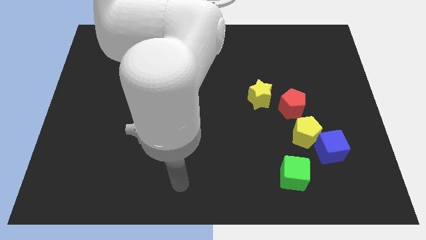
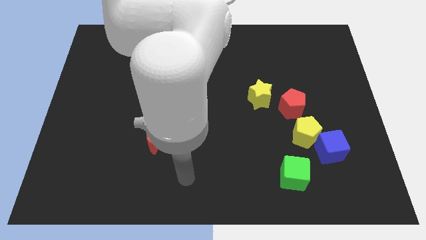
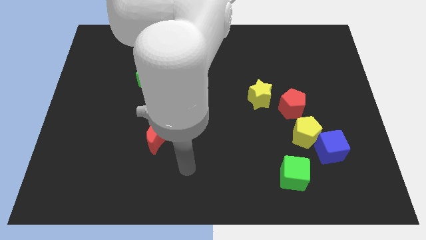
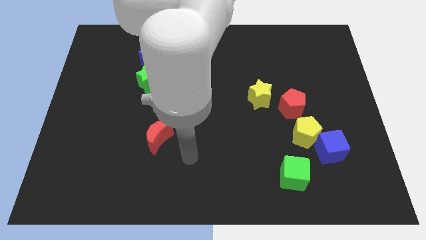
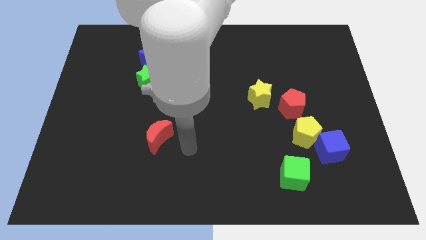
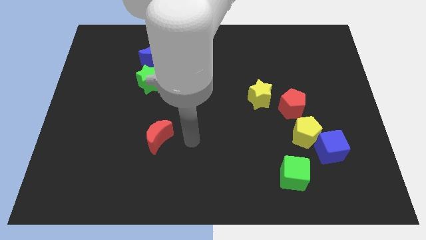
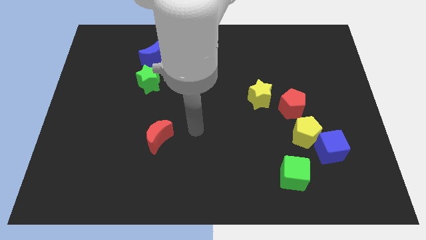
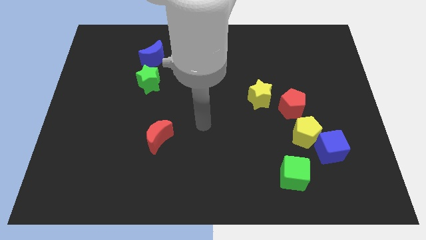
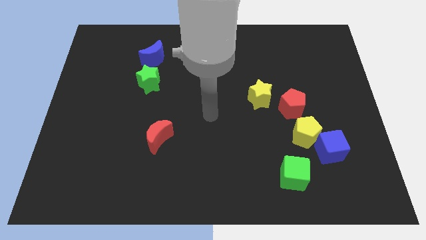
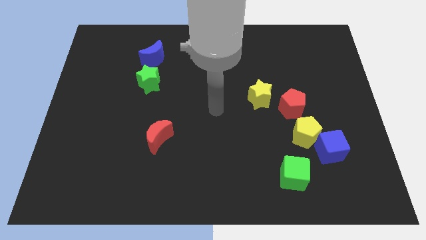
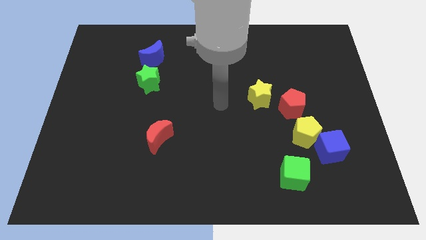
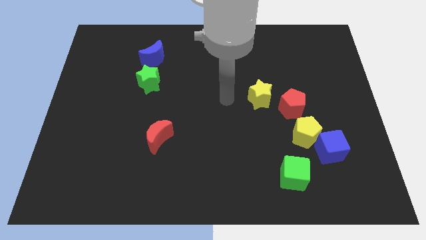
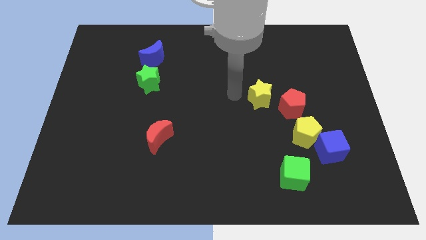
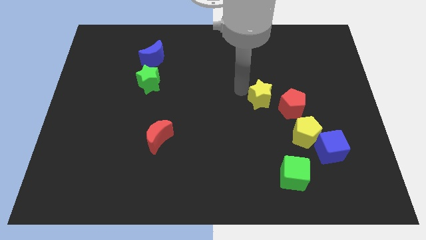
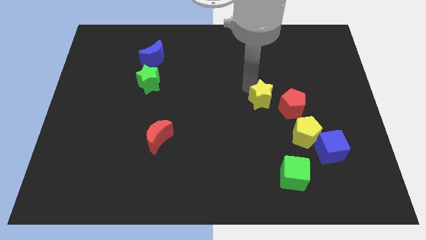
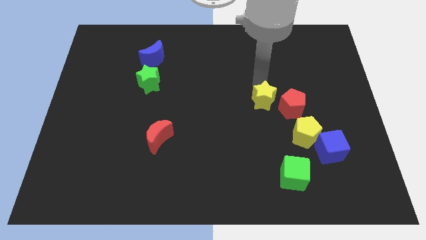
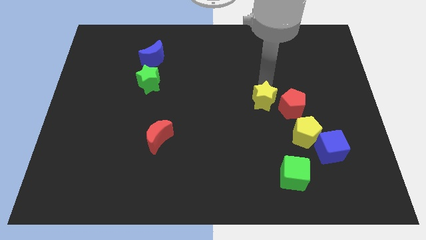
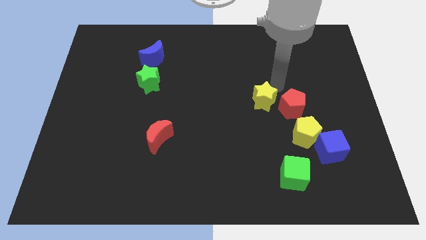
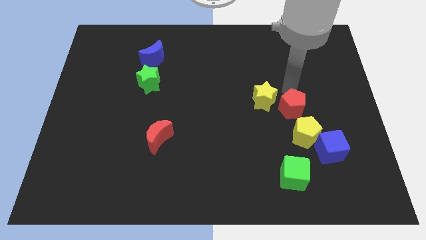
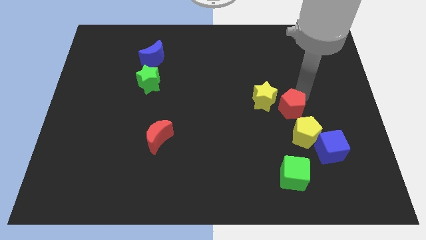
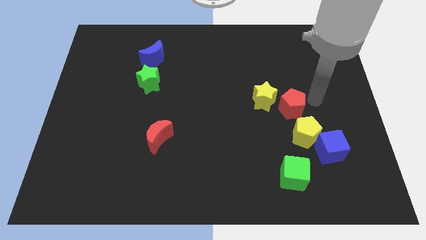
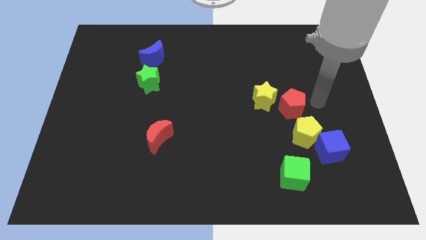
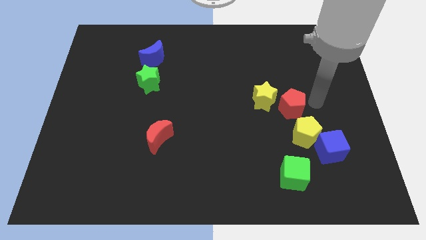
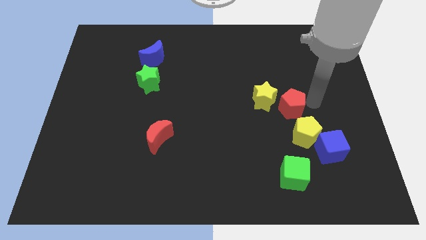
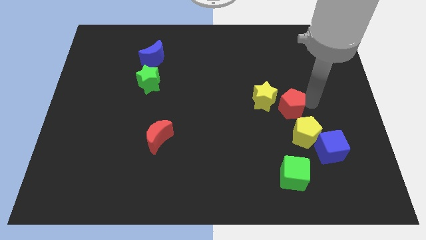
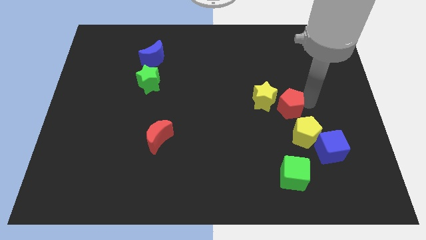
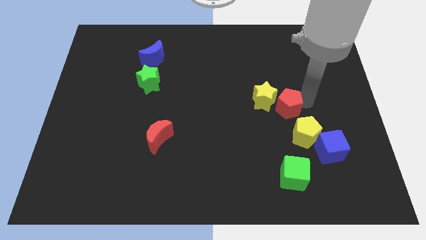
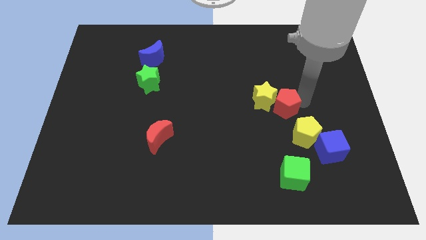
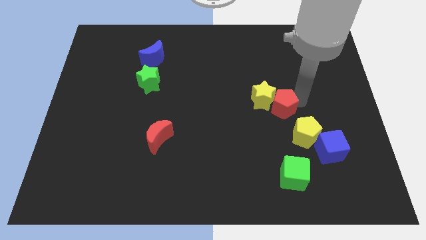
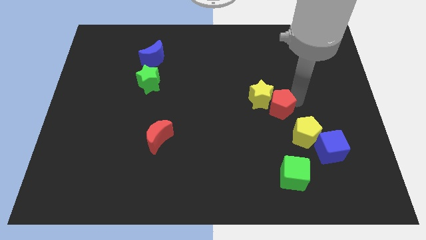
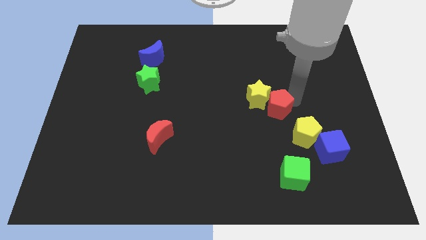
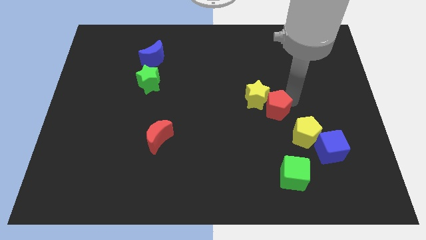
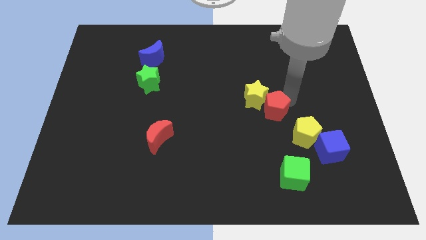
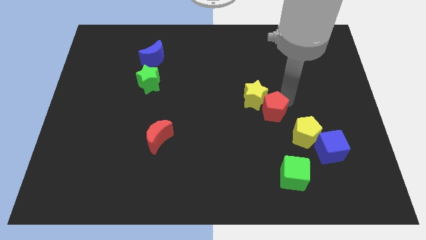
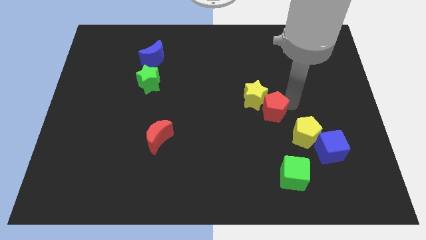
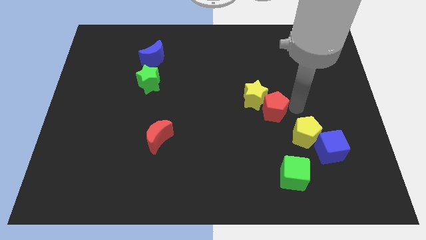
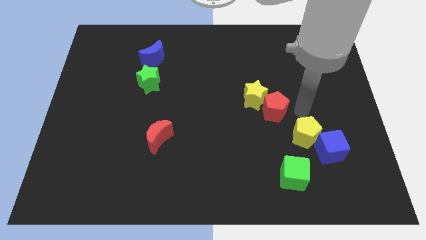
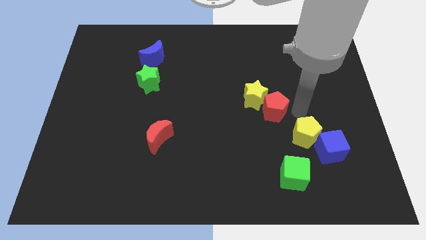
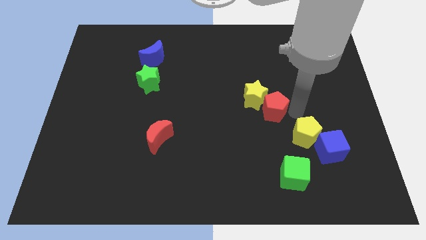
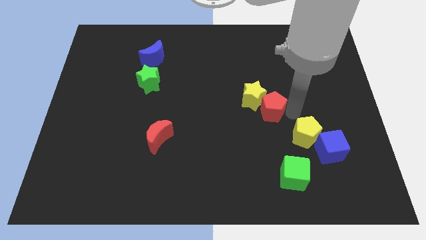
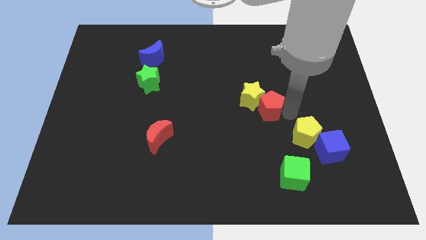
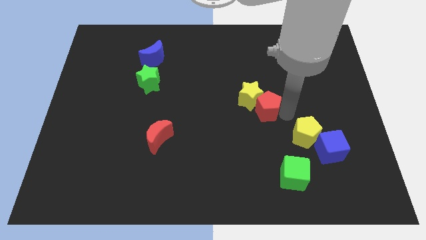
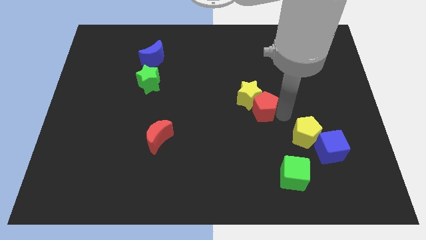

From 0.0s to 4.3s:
push the red pentagon a bit left

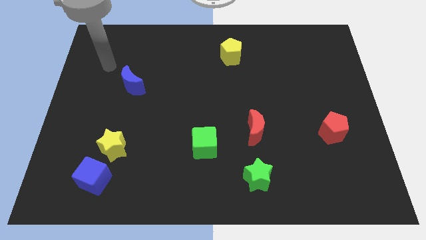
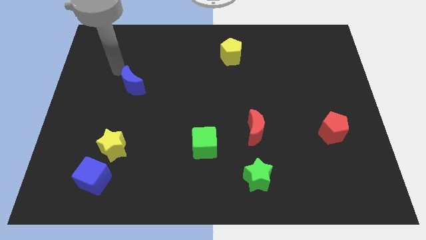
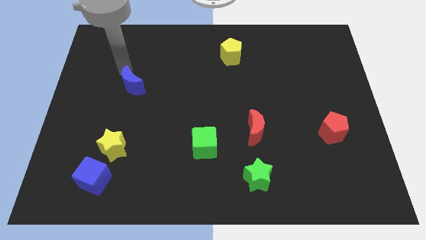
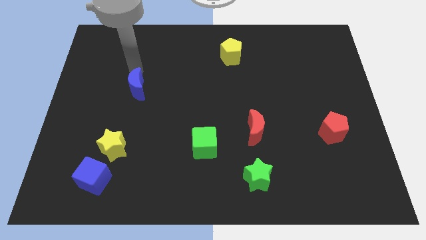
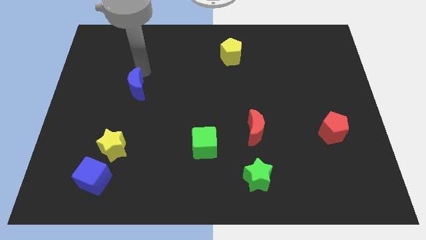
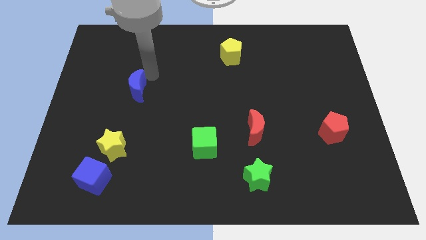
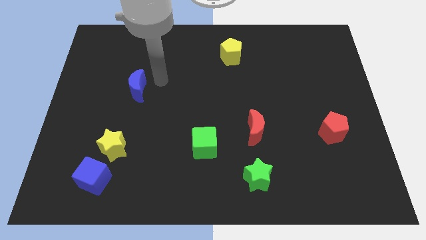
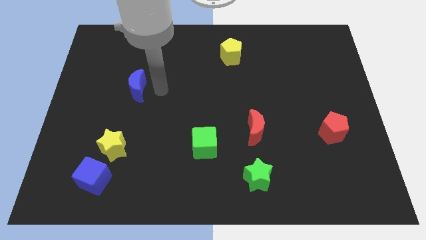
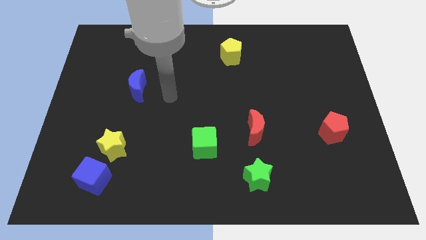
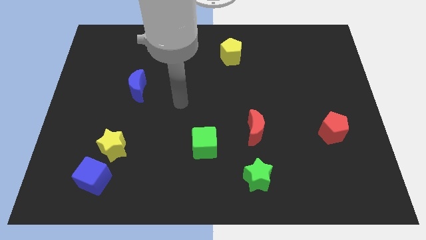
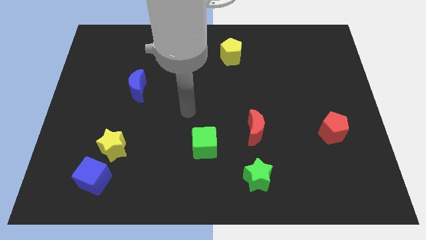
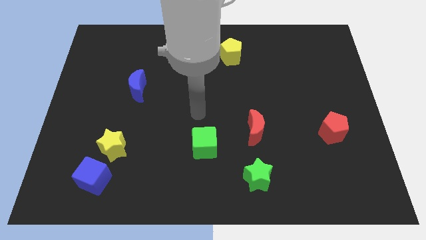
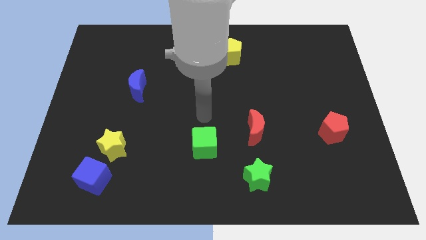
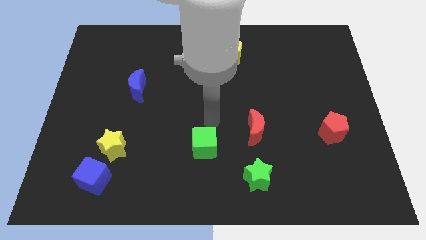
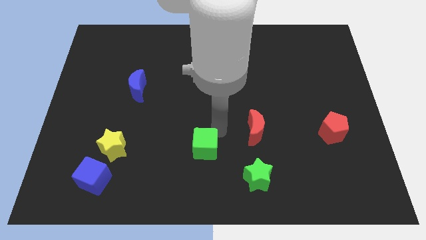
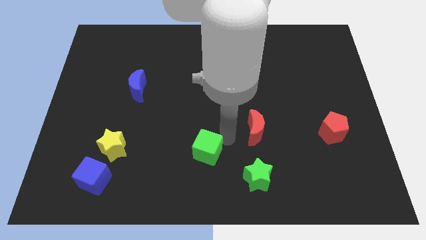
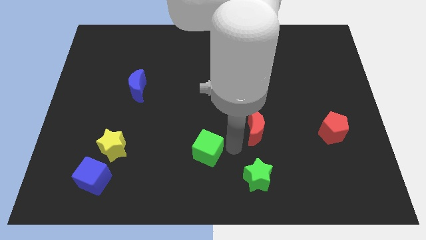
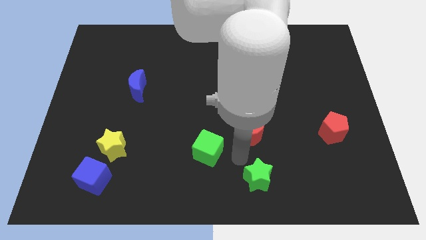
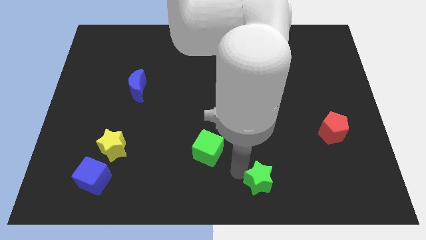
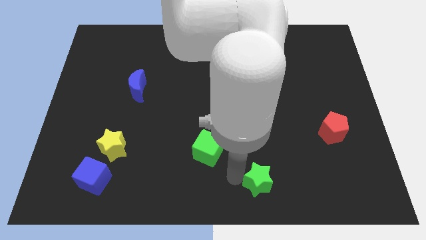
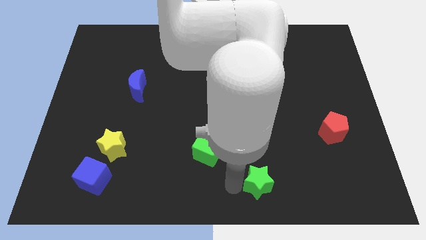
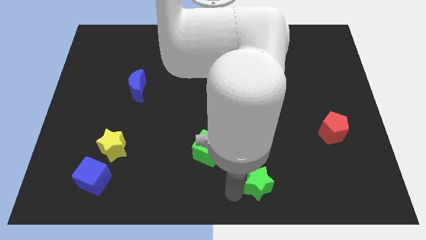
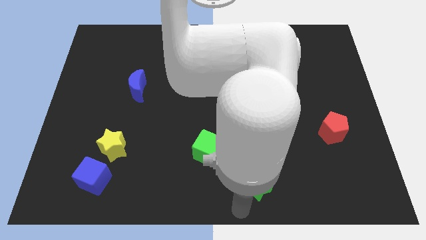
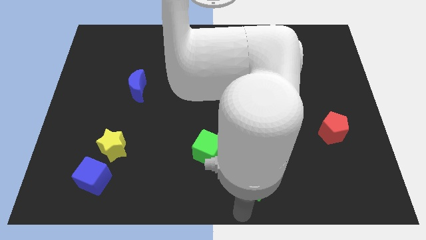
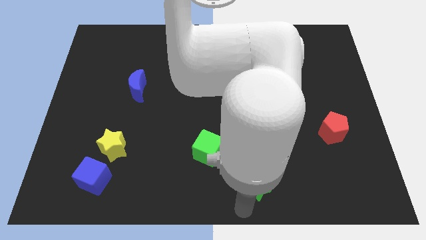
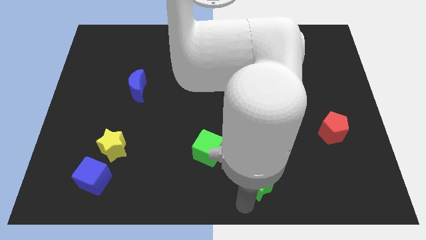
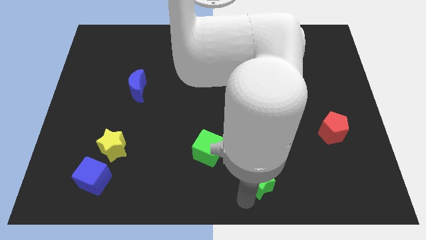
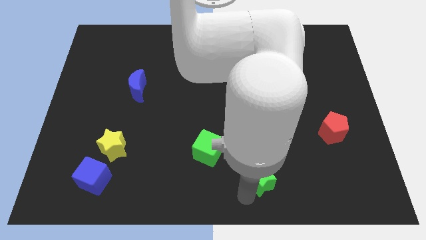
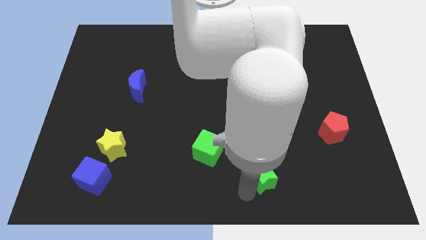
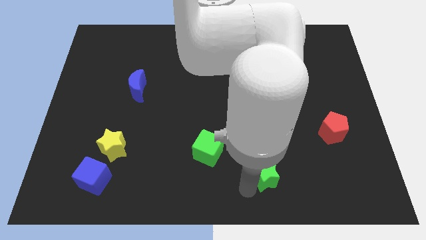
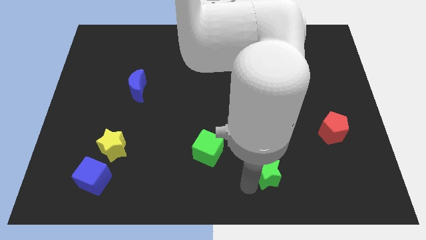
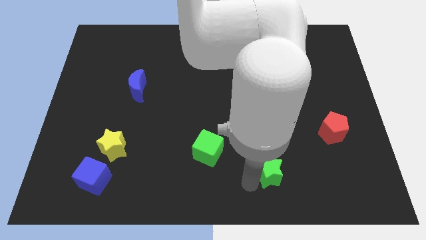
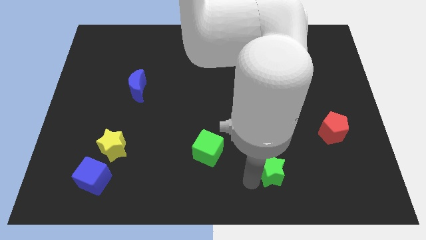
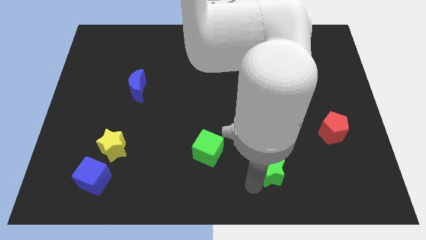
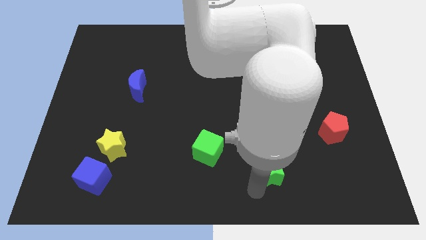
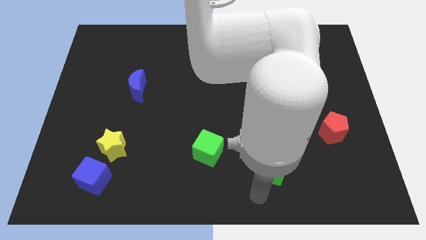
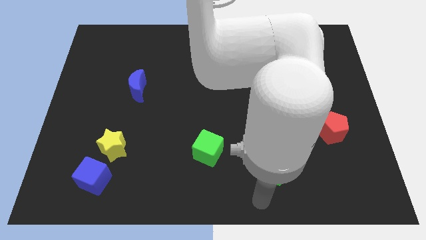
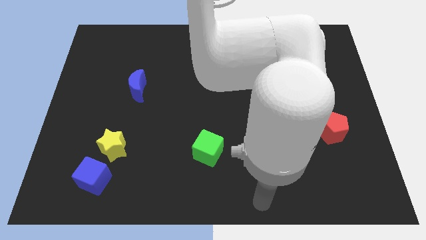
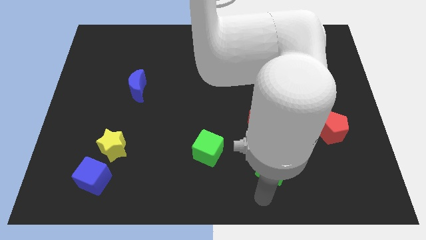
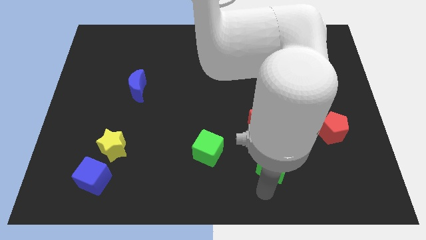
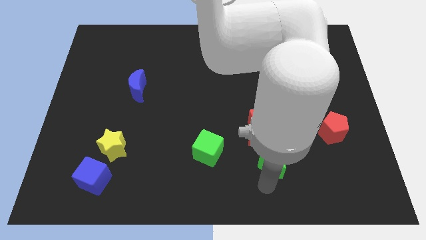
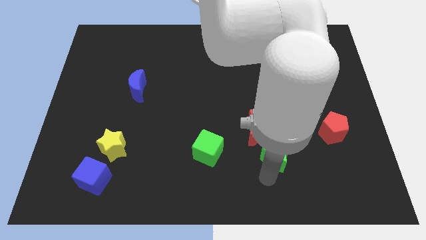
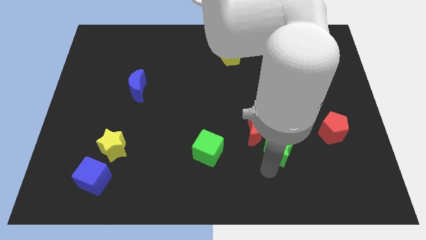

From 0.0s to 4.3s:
move the green star up and right a bit
